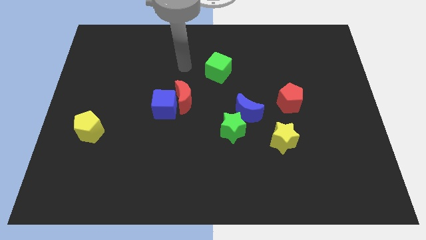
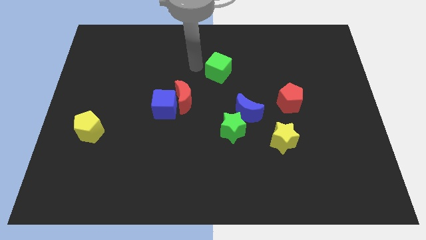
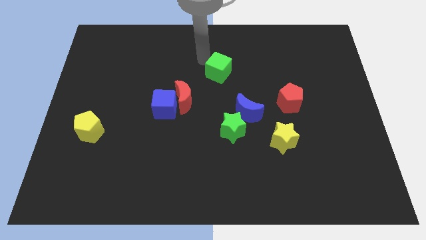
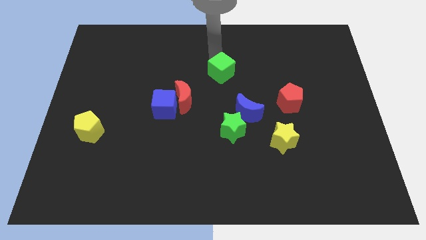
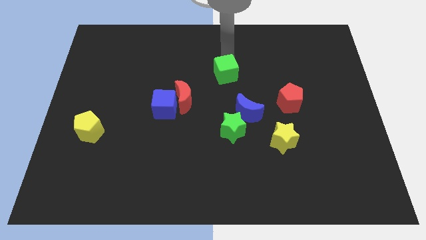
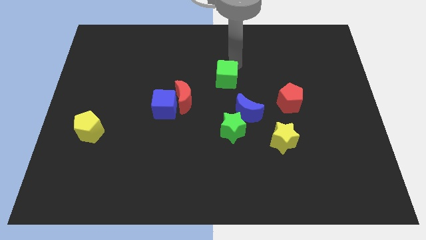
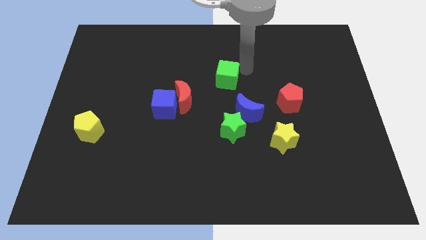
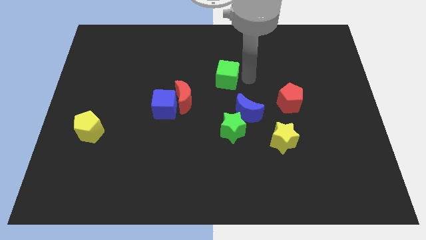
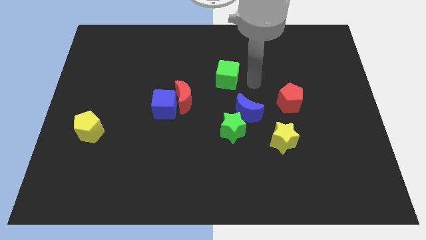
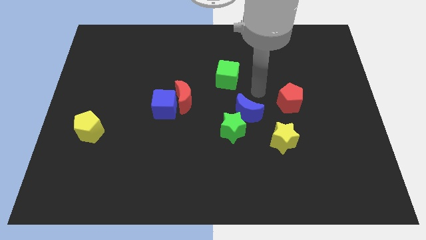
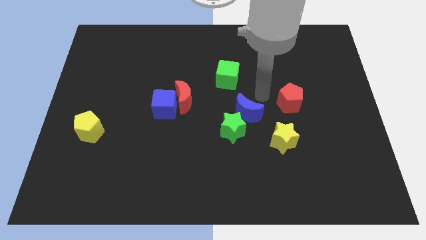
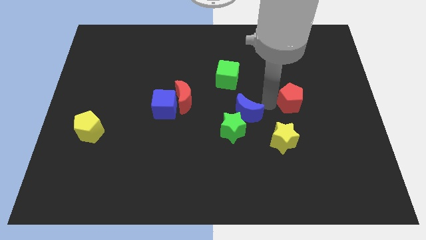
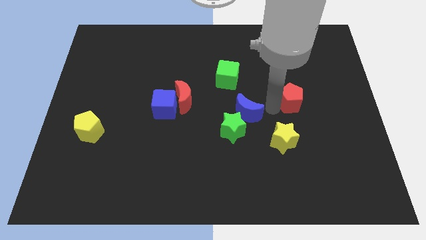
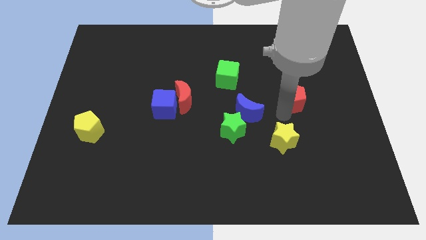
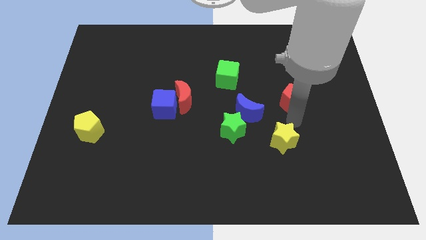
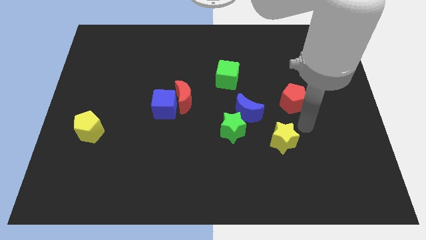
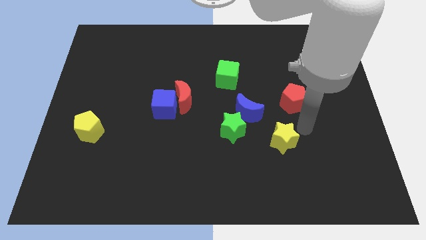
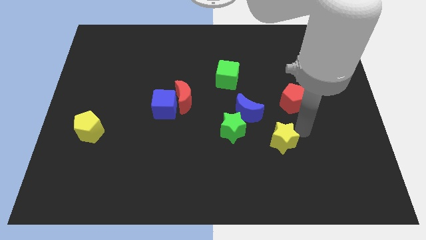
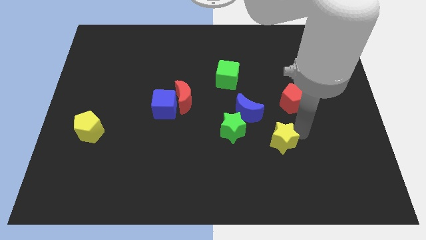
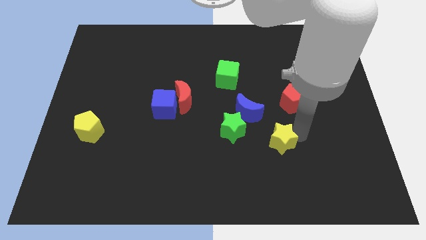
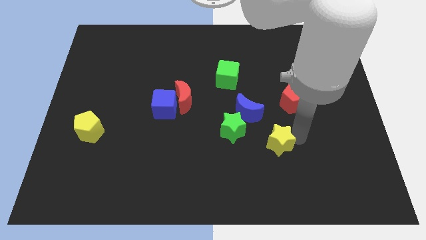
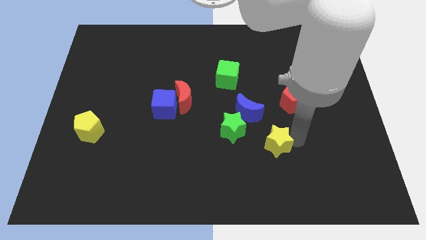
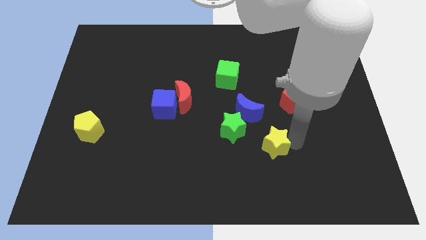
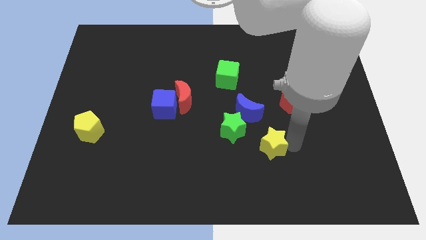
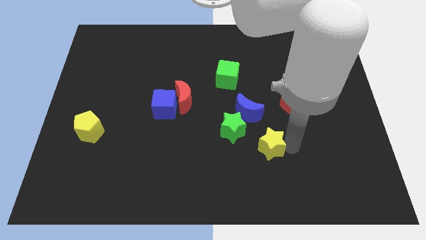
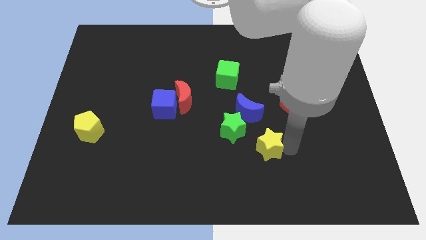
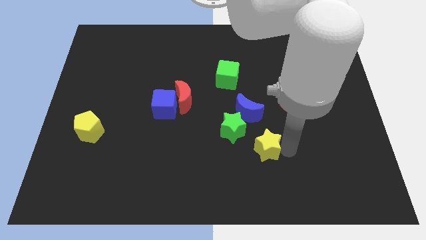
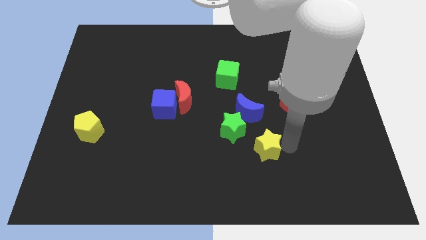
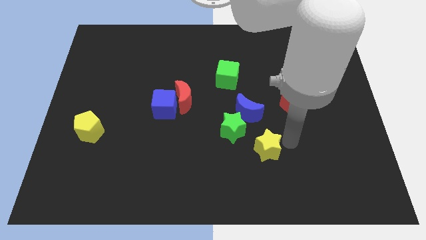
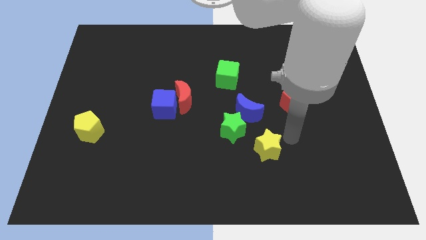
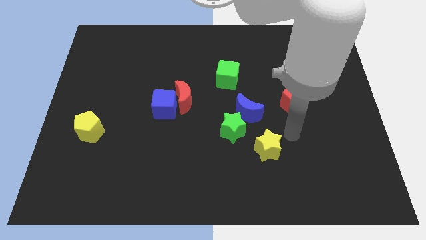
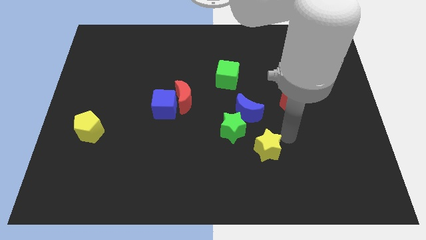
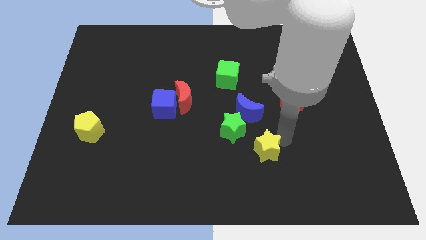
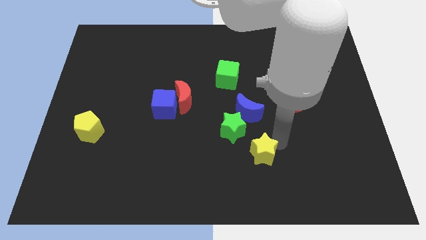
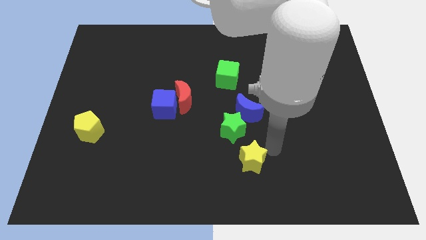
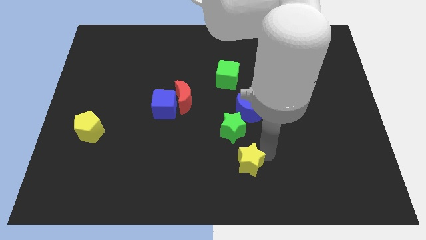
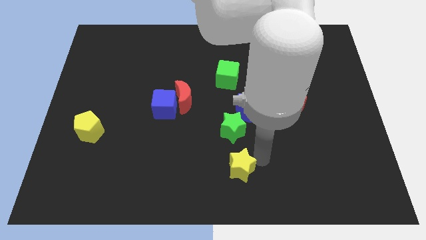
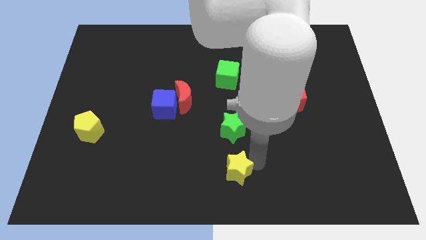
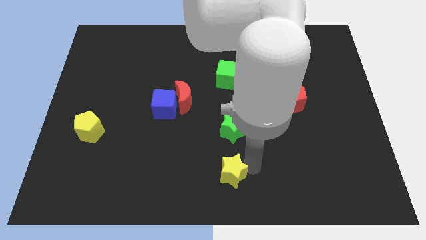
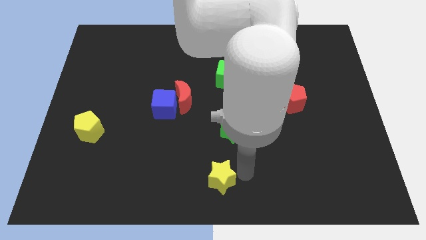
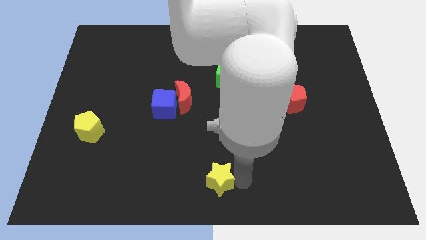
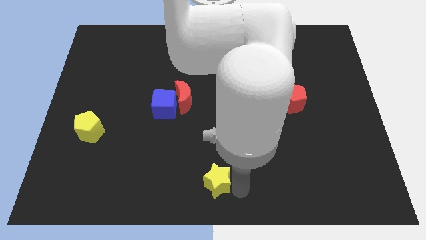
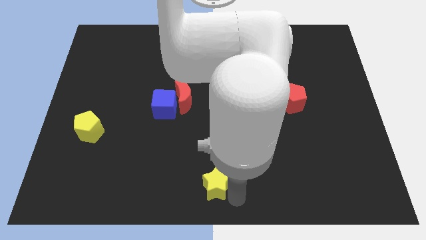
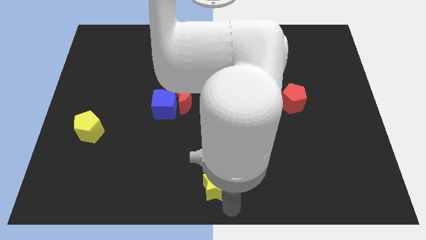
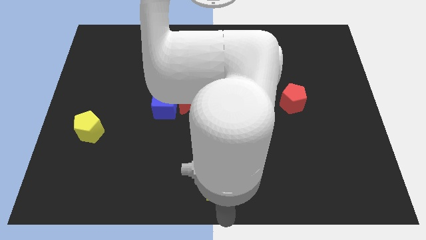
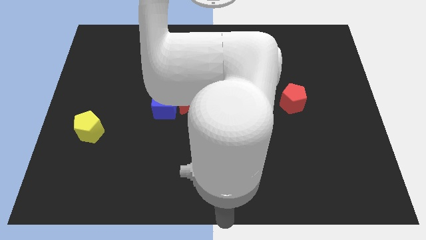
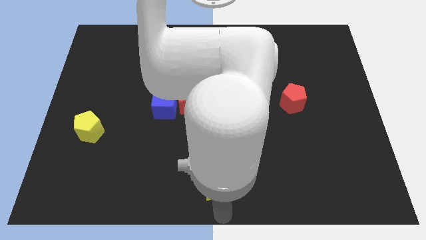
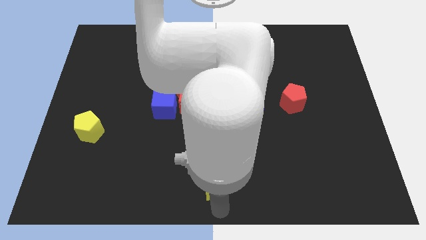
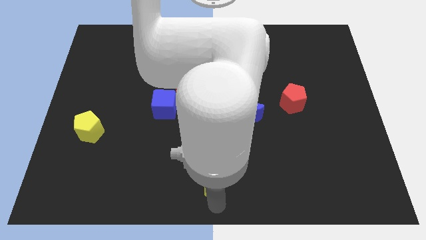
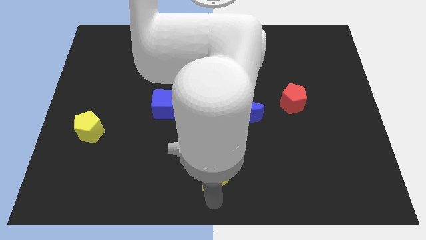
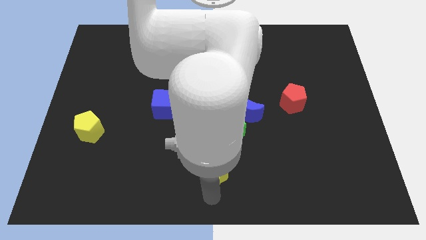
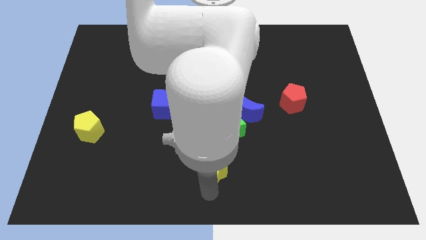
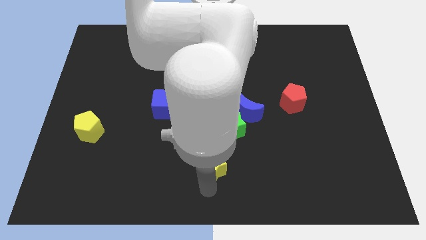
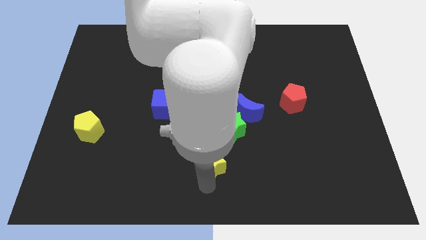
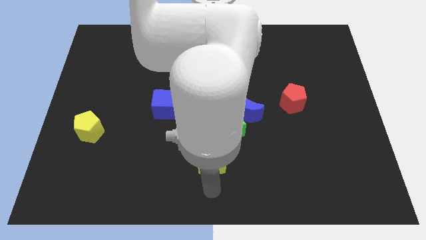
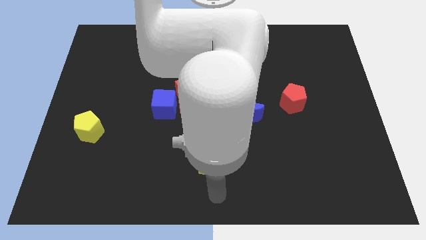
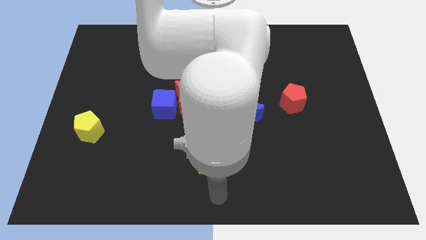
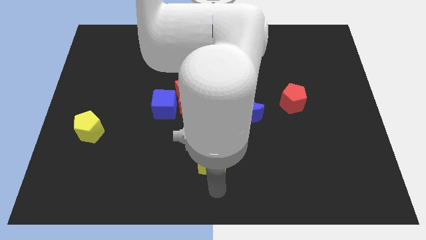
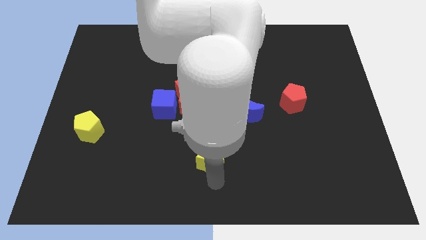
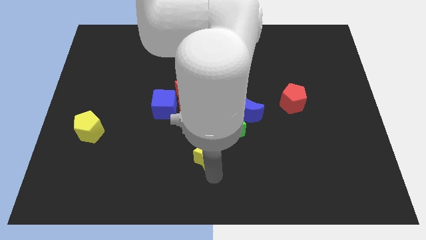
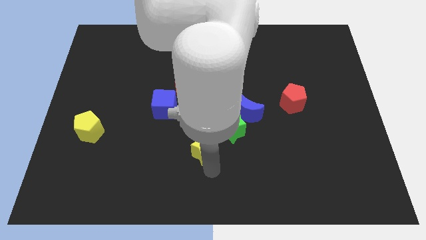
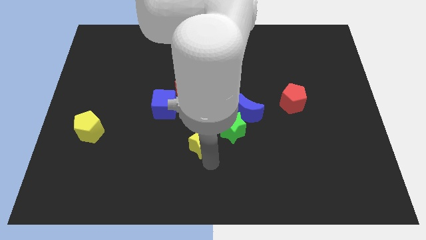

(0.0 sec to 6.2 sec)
put the yellow star left of the green star

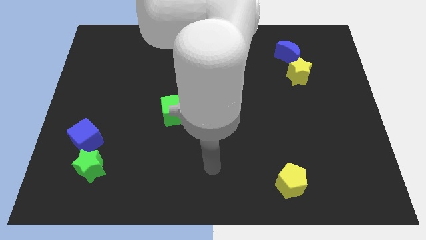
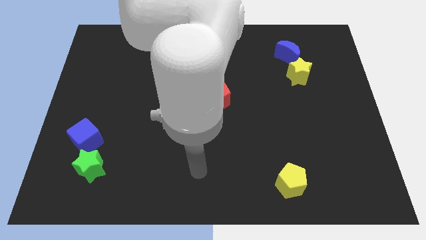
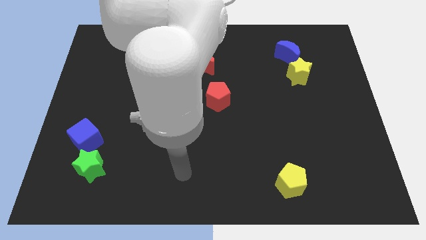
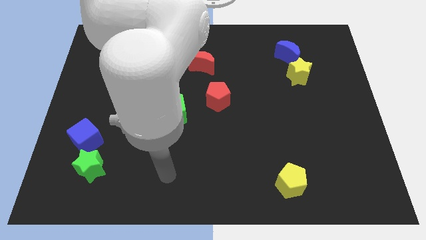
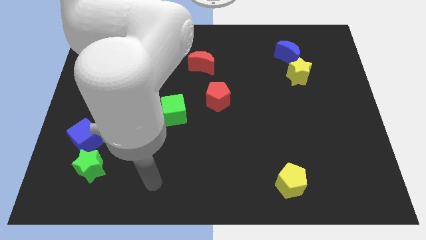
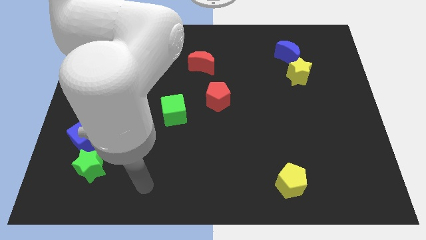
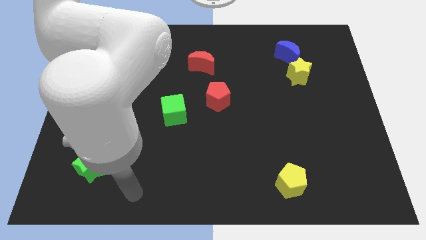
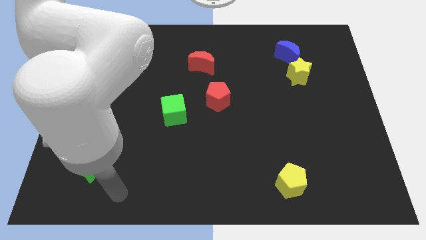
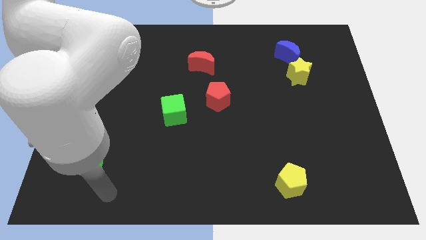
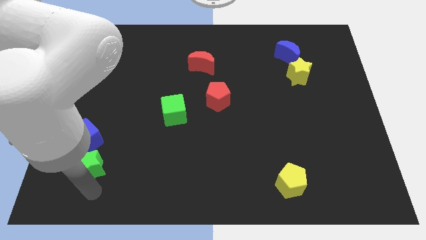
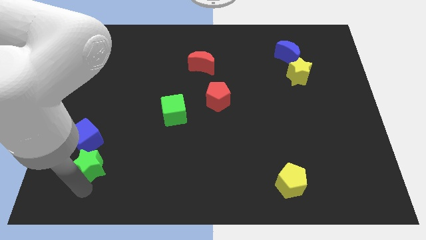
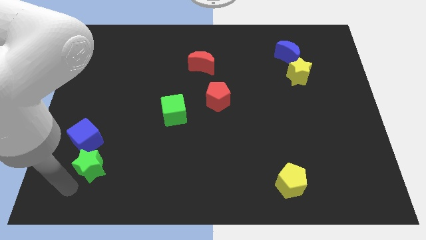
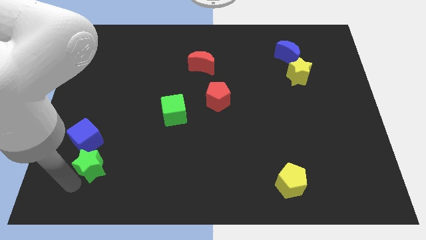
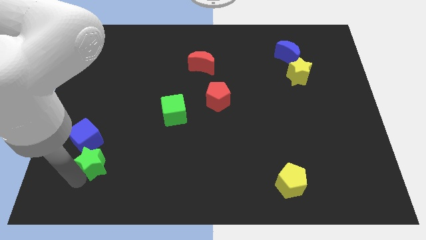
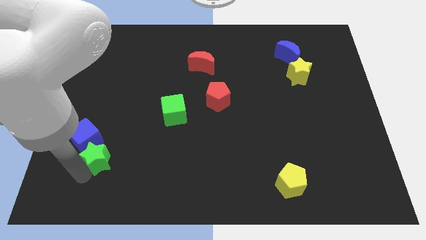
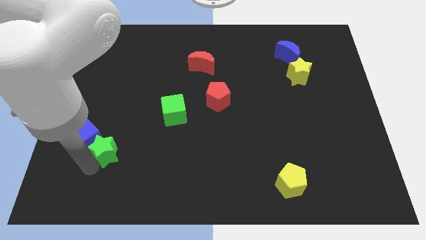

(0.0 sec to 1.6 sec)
move the green star to the right of the blue cube
